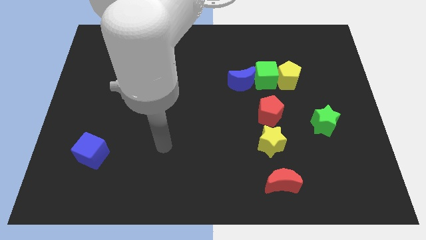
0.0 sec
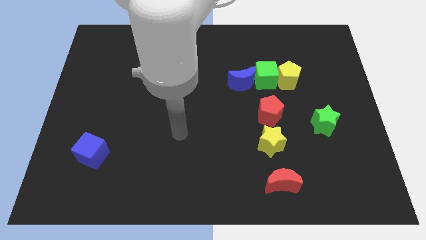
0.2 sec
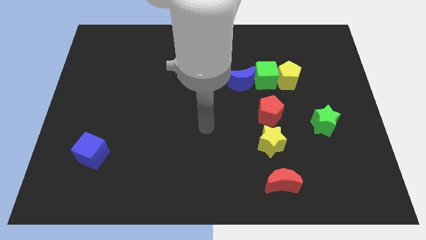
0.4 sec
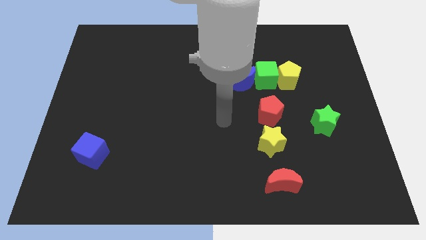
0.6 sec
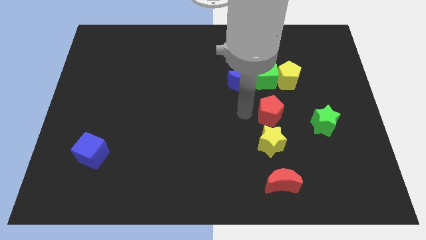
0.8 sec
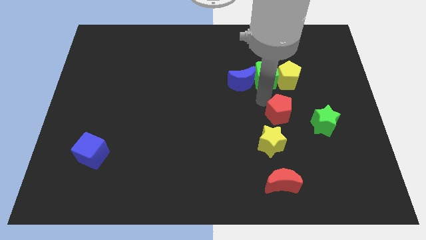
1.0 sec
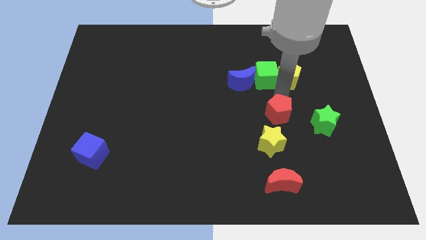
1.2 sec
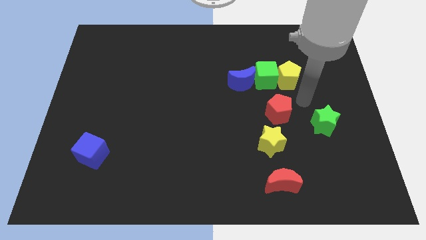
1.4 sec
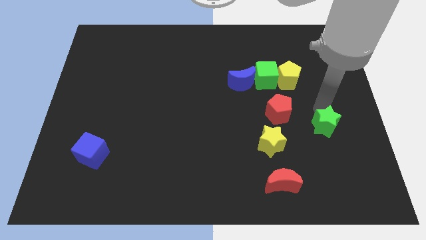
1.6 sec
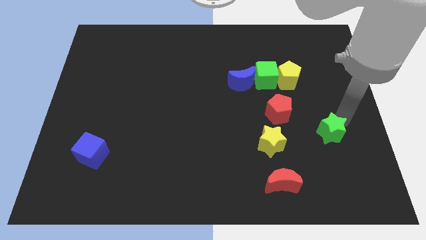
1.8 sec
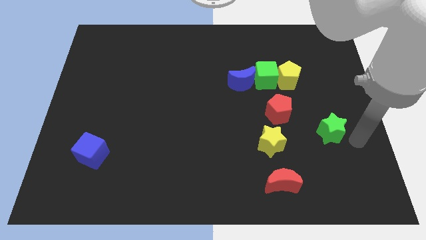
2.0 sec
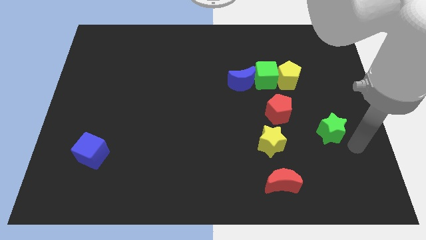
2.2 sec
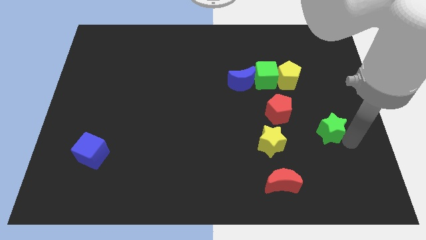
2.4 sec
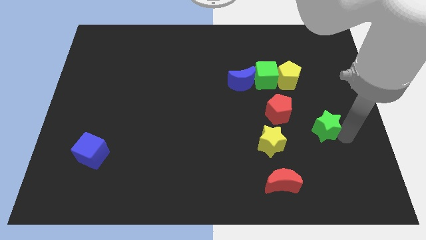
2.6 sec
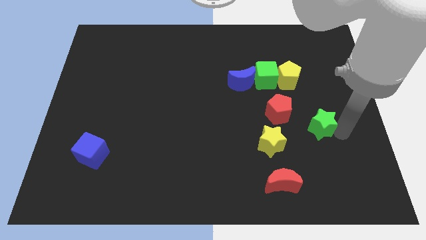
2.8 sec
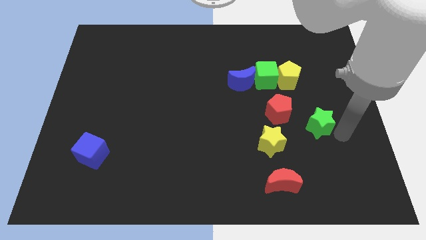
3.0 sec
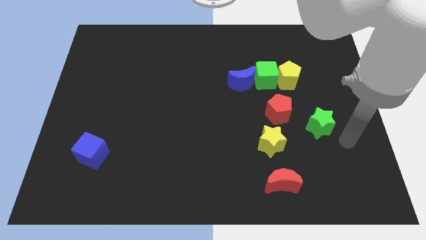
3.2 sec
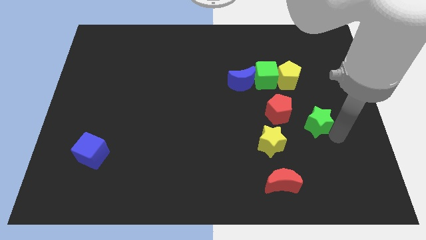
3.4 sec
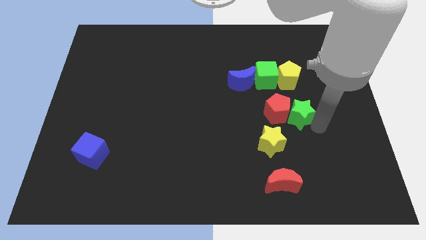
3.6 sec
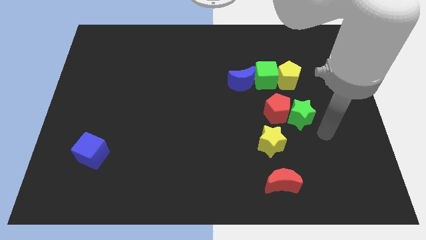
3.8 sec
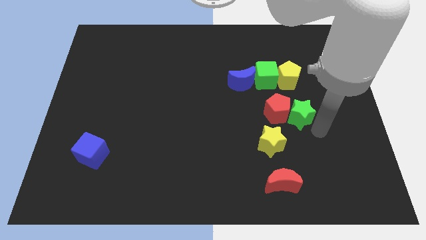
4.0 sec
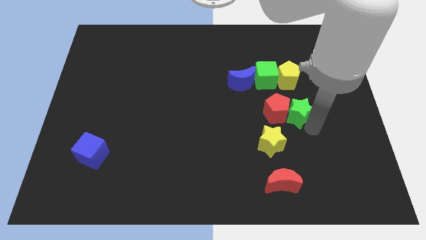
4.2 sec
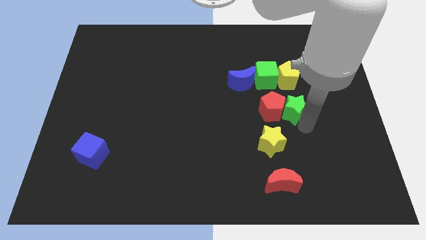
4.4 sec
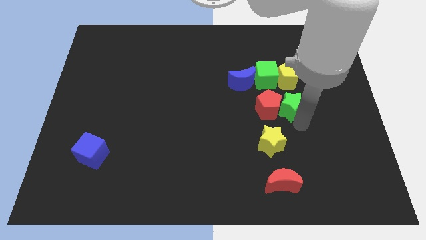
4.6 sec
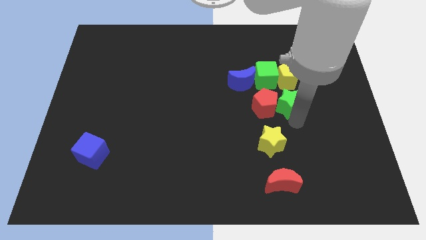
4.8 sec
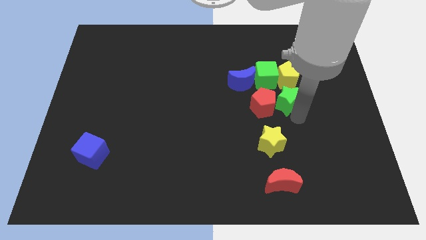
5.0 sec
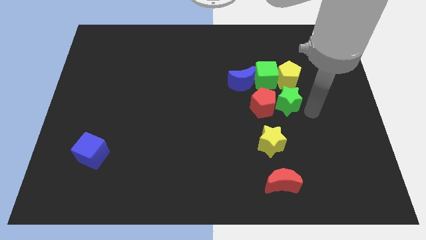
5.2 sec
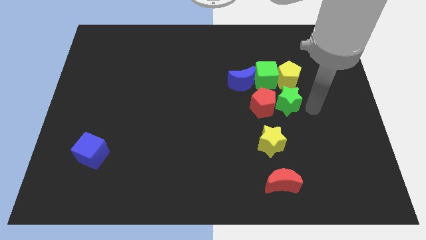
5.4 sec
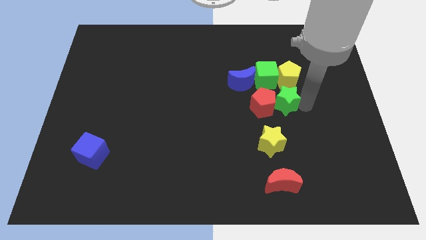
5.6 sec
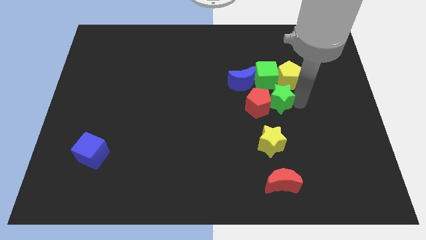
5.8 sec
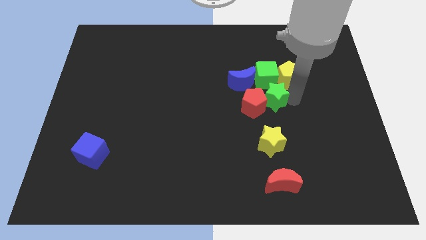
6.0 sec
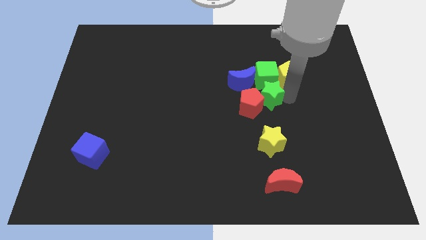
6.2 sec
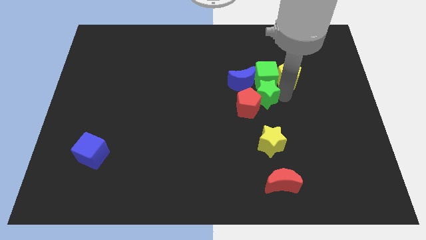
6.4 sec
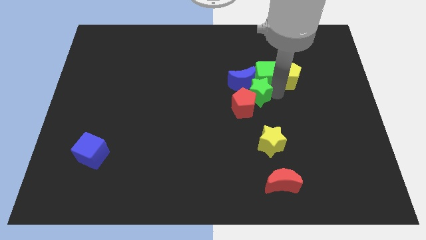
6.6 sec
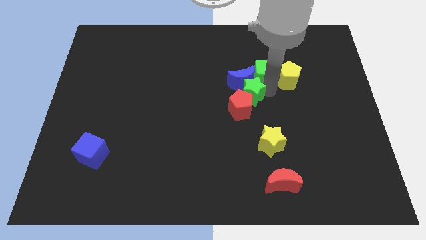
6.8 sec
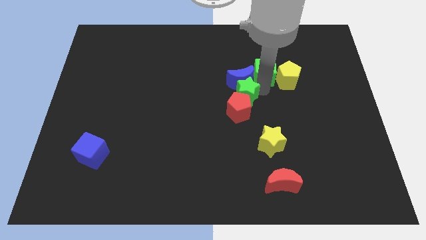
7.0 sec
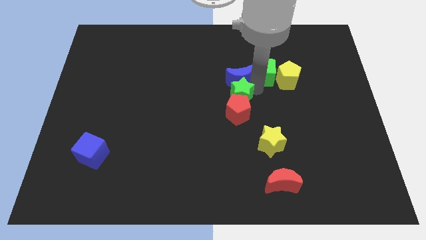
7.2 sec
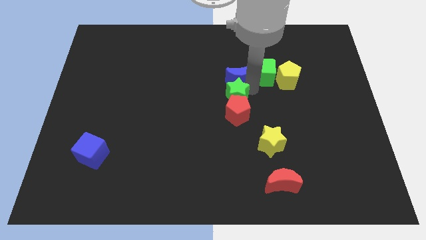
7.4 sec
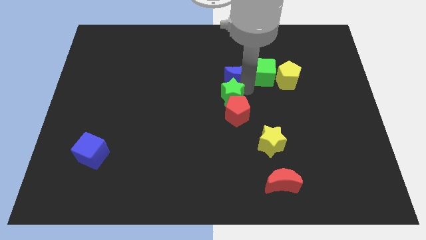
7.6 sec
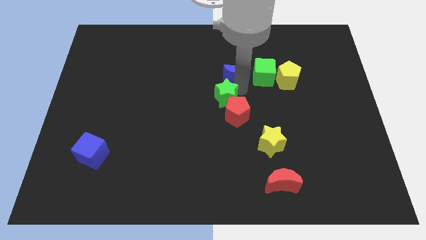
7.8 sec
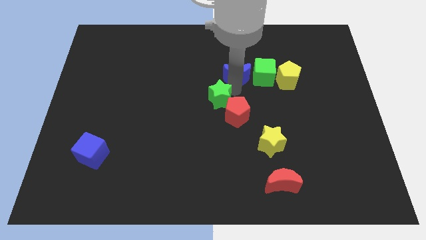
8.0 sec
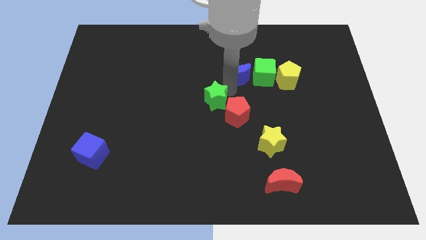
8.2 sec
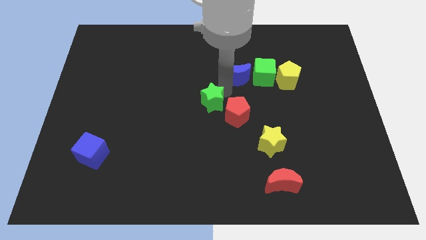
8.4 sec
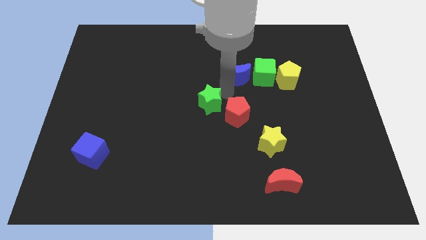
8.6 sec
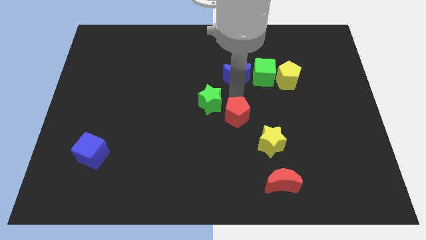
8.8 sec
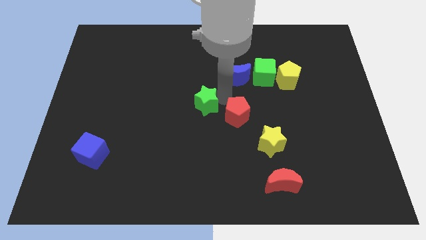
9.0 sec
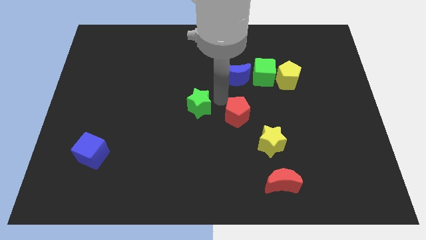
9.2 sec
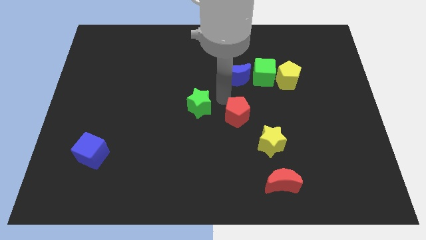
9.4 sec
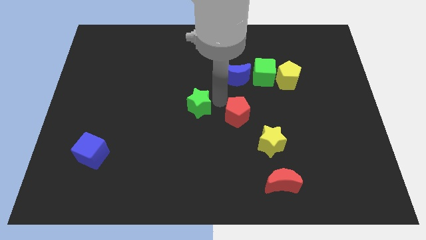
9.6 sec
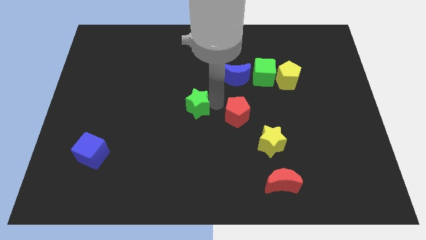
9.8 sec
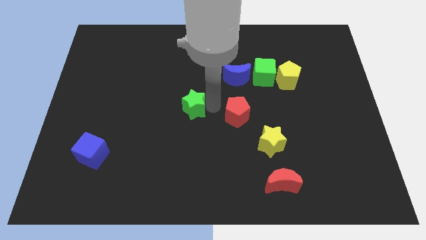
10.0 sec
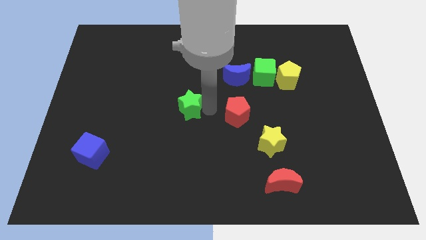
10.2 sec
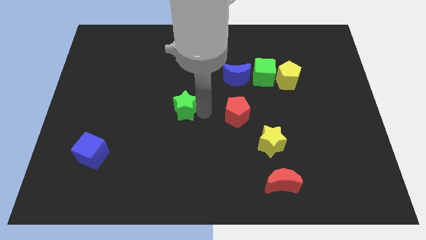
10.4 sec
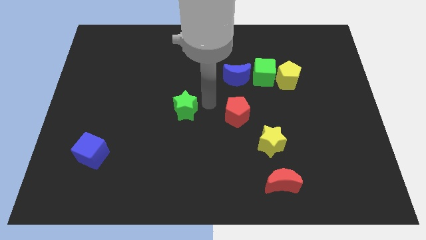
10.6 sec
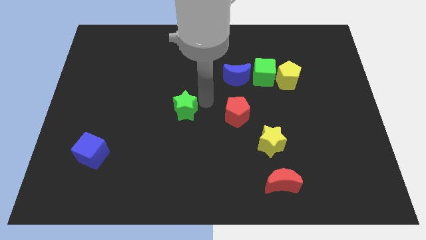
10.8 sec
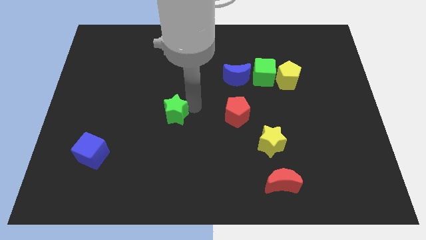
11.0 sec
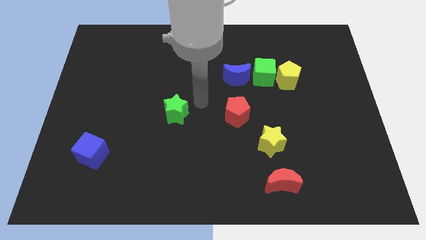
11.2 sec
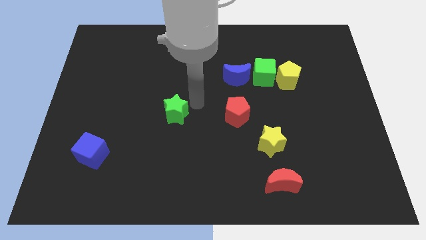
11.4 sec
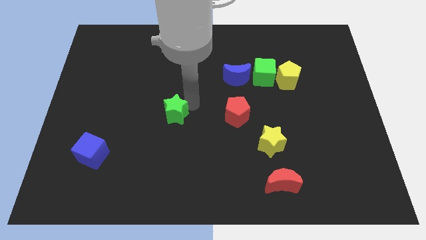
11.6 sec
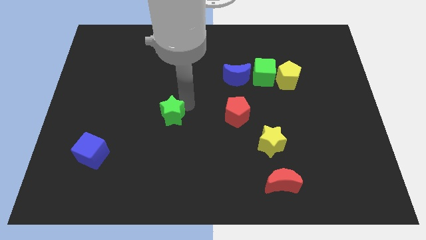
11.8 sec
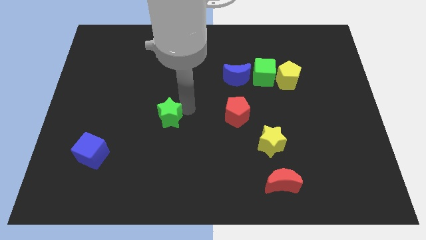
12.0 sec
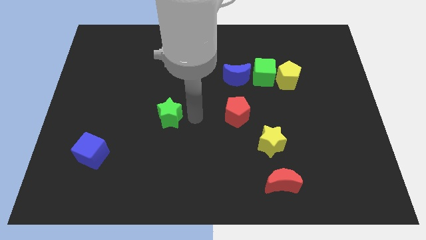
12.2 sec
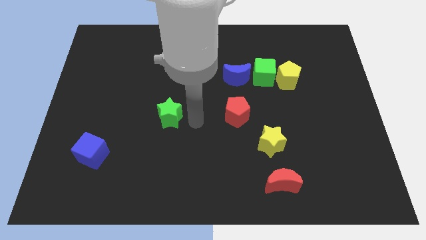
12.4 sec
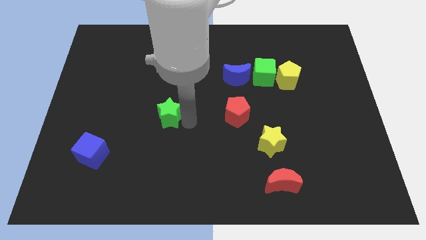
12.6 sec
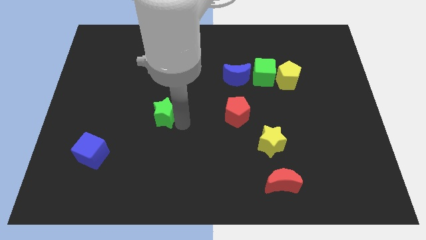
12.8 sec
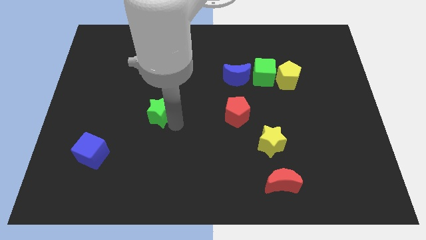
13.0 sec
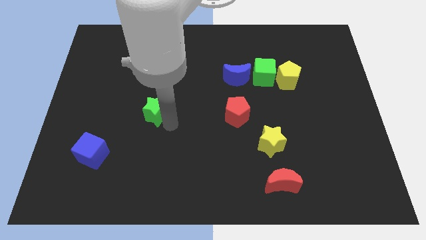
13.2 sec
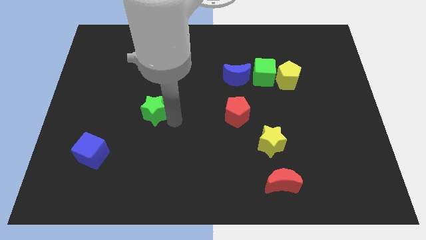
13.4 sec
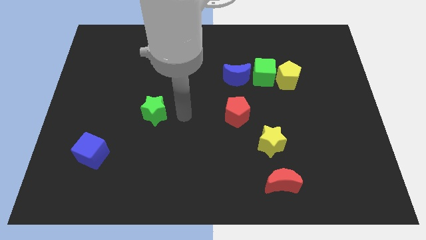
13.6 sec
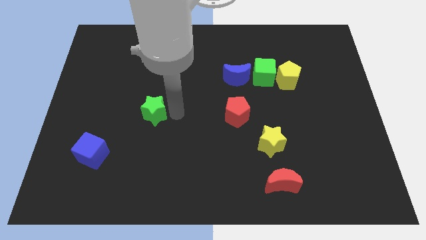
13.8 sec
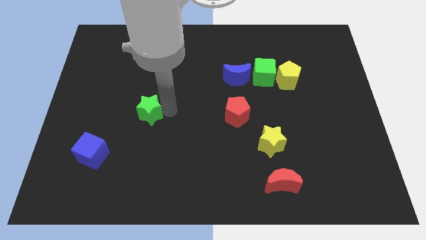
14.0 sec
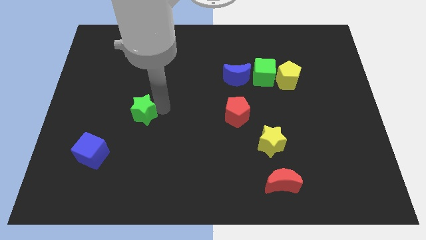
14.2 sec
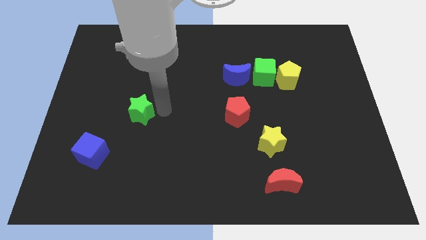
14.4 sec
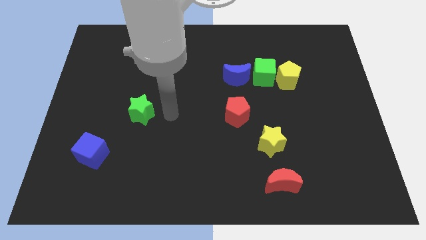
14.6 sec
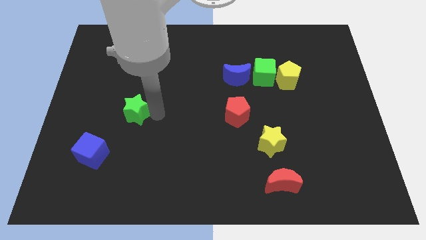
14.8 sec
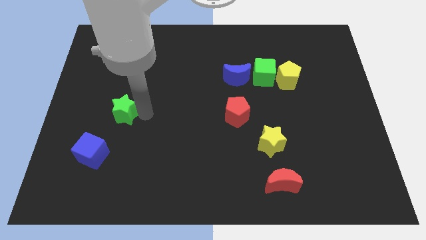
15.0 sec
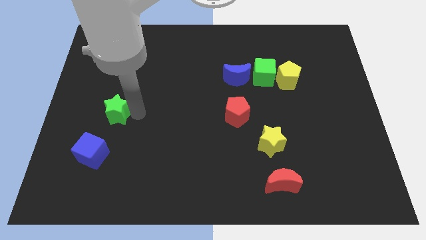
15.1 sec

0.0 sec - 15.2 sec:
slide the green star above the blue cube
